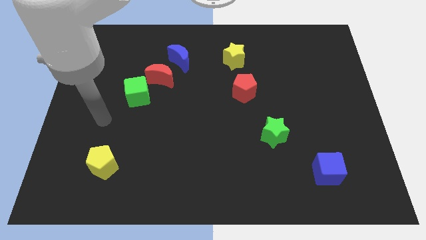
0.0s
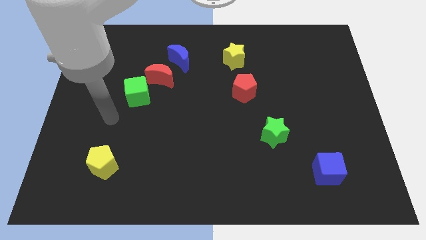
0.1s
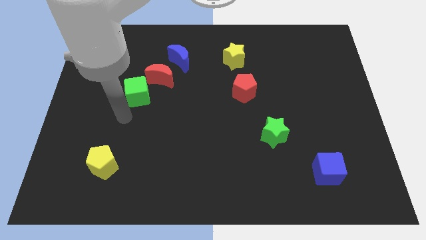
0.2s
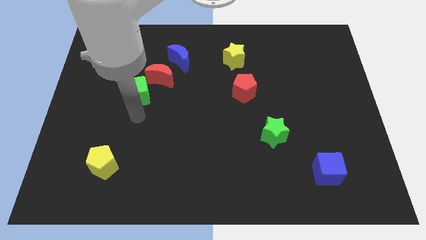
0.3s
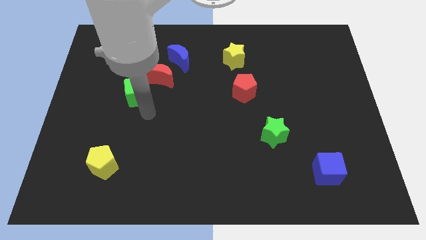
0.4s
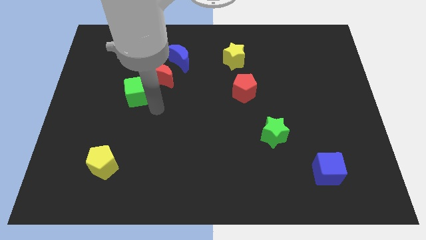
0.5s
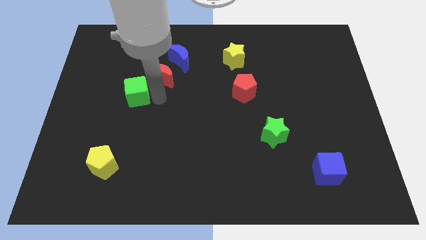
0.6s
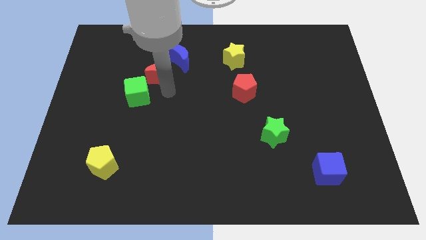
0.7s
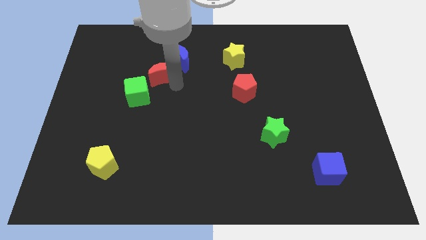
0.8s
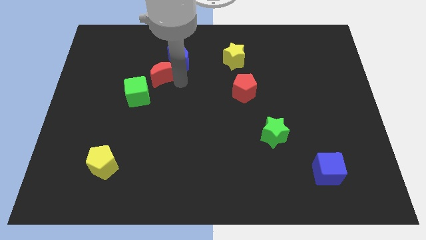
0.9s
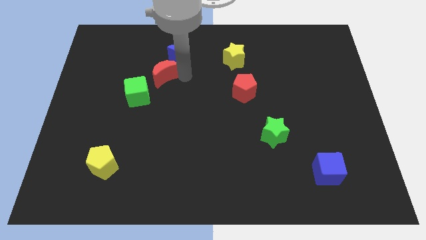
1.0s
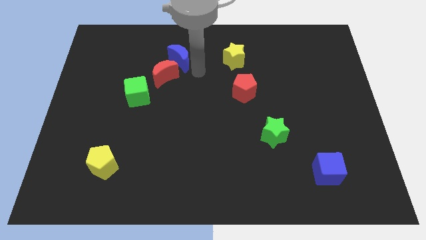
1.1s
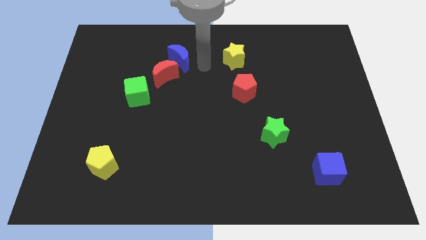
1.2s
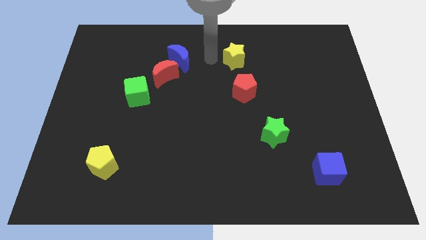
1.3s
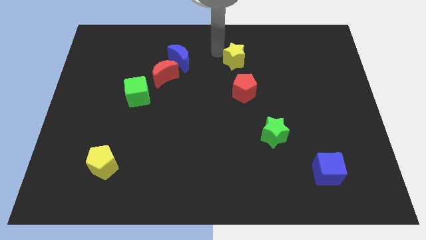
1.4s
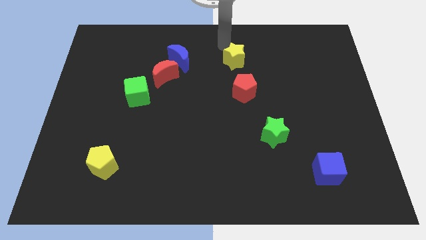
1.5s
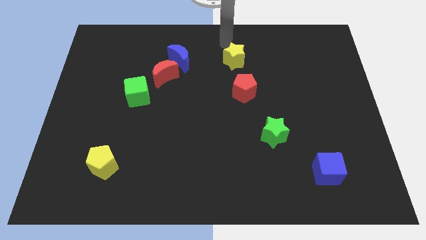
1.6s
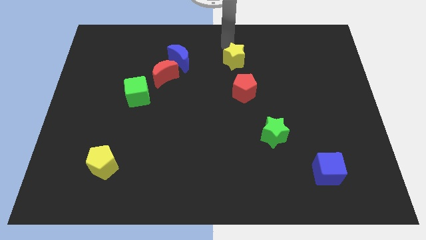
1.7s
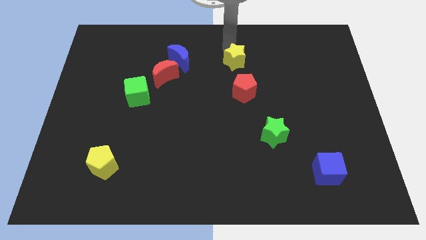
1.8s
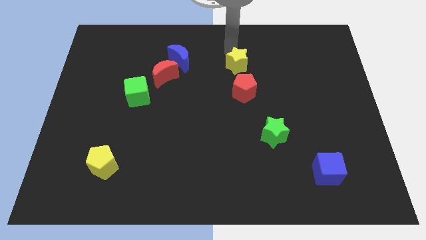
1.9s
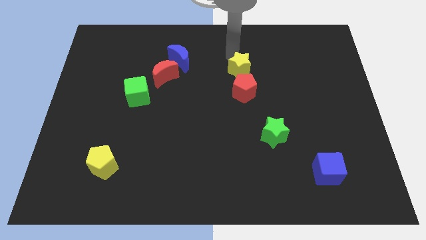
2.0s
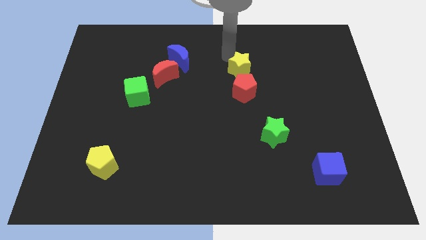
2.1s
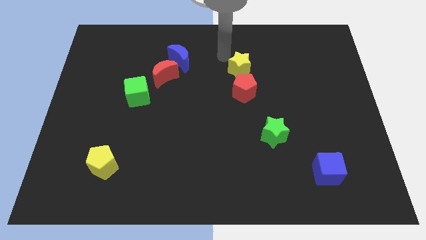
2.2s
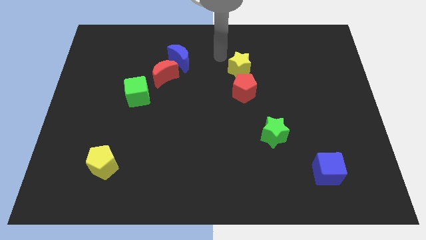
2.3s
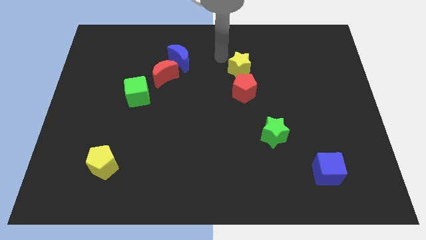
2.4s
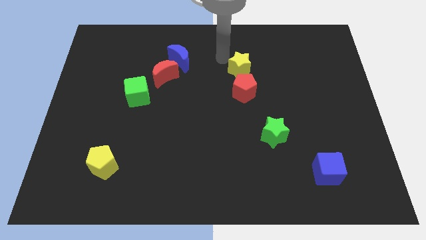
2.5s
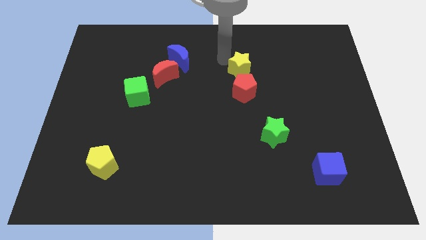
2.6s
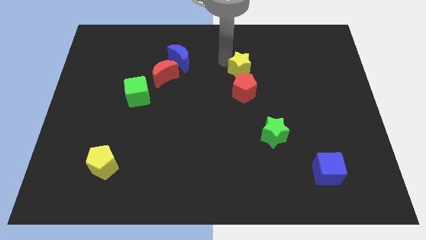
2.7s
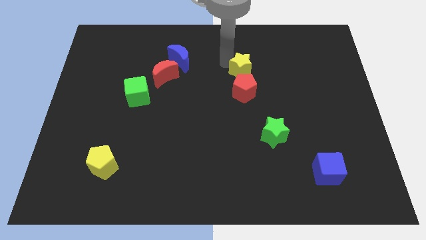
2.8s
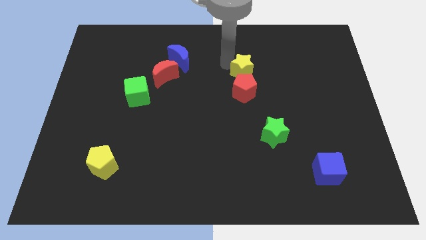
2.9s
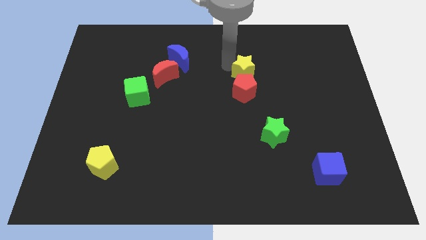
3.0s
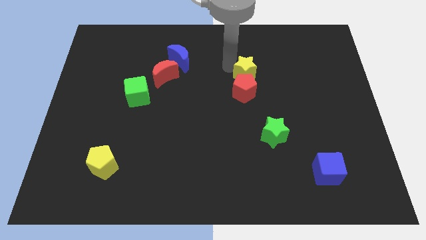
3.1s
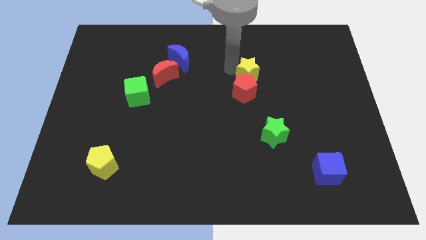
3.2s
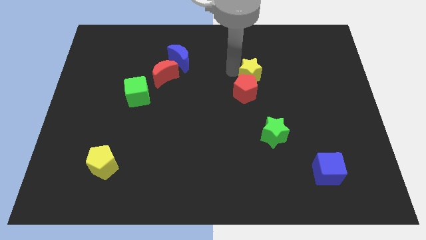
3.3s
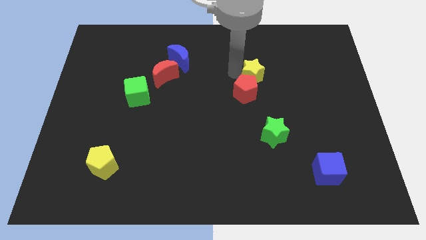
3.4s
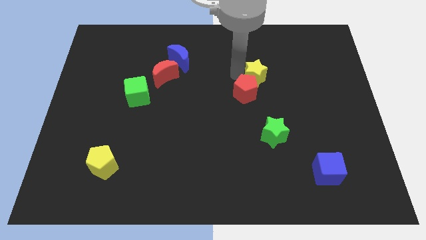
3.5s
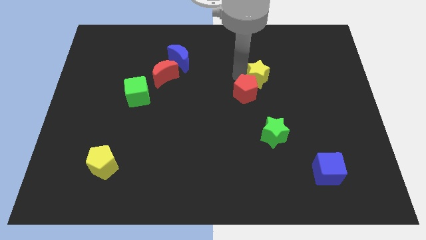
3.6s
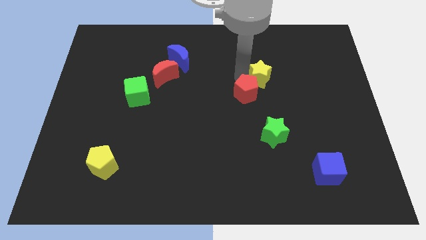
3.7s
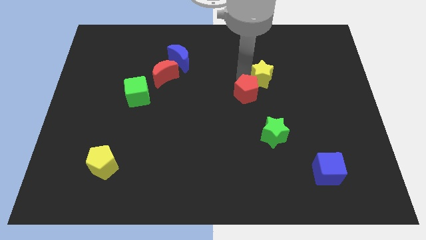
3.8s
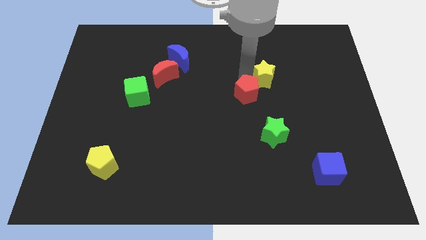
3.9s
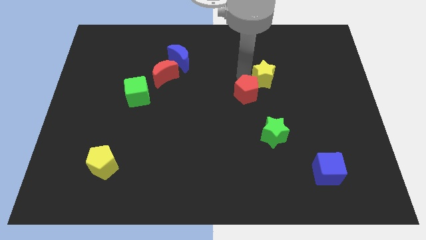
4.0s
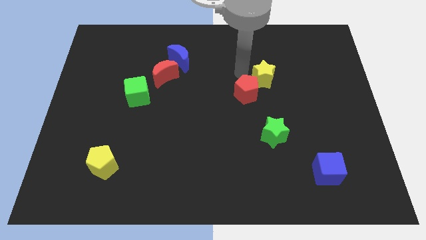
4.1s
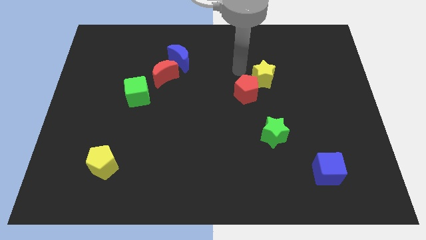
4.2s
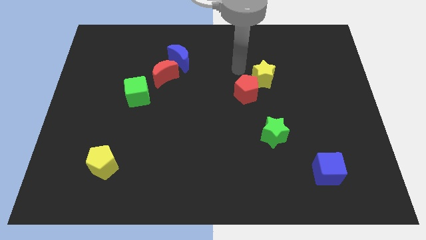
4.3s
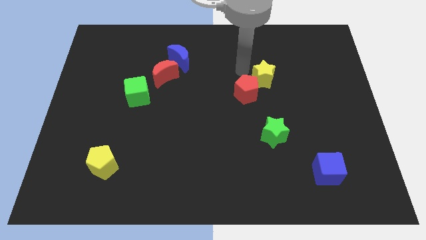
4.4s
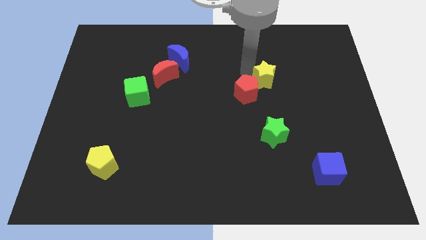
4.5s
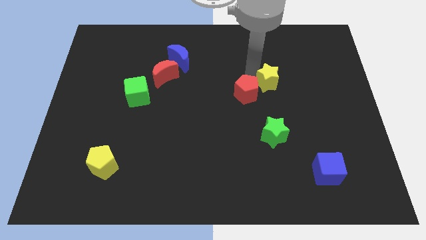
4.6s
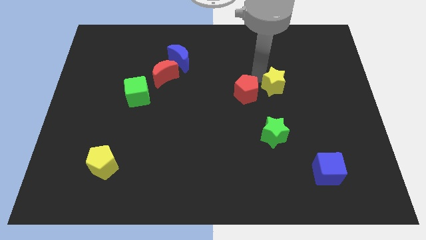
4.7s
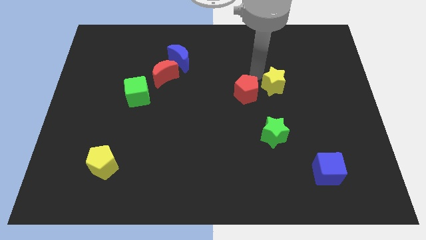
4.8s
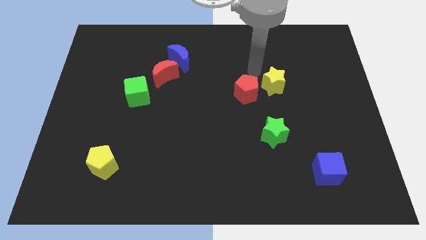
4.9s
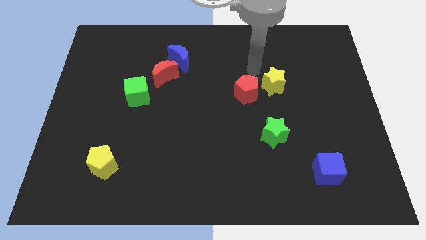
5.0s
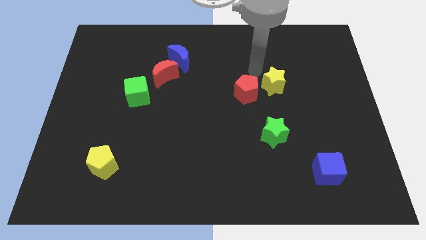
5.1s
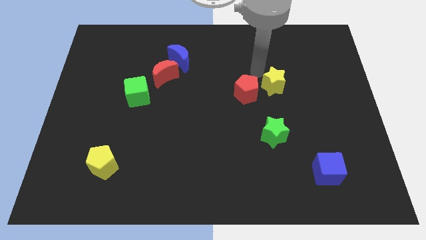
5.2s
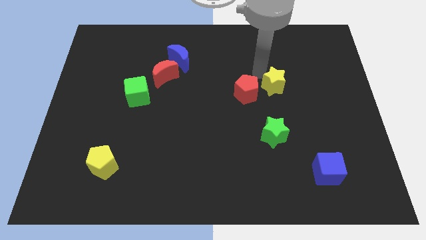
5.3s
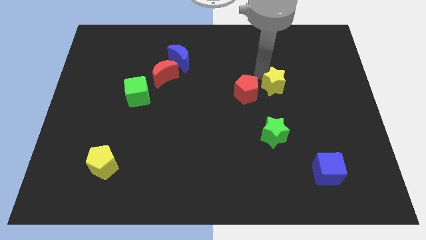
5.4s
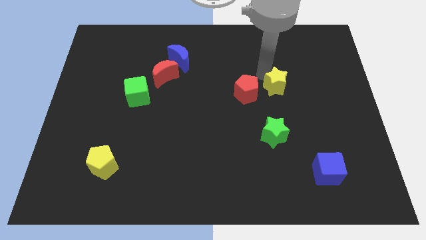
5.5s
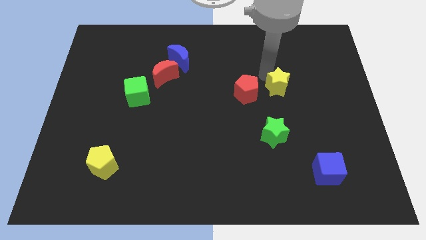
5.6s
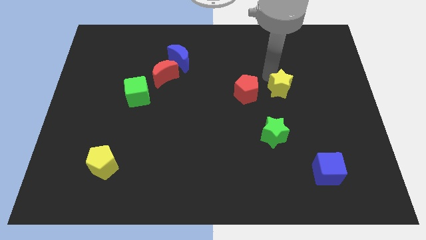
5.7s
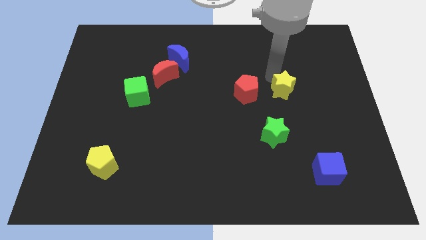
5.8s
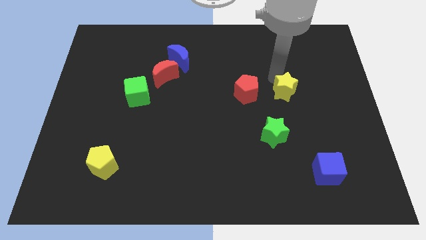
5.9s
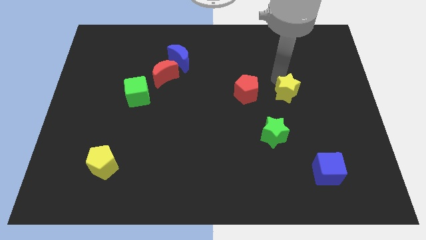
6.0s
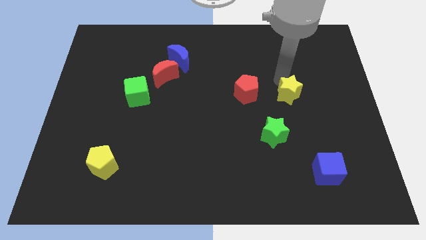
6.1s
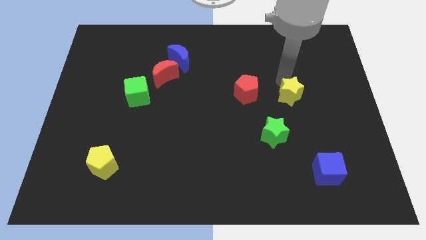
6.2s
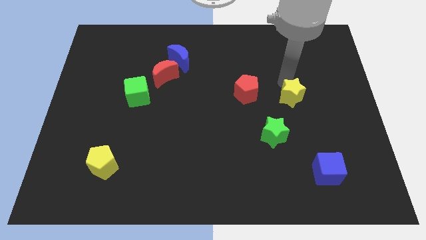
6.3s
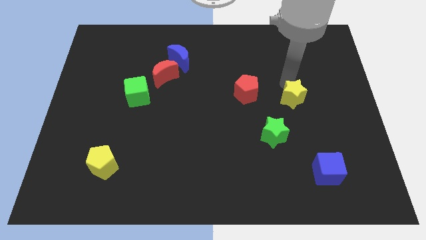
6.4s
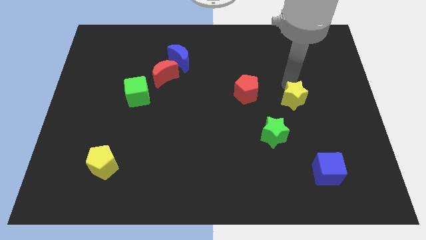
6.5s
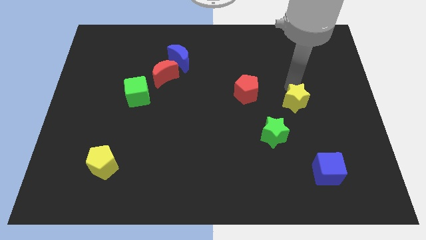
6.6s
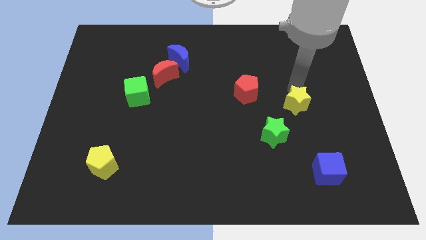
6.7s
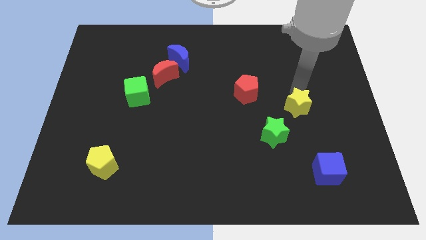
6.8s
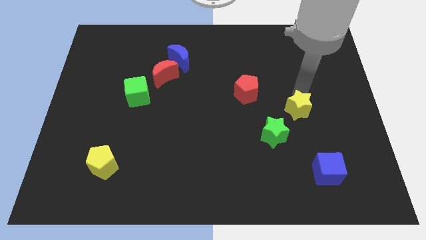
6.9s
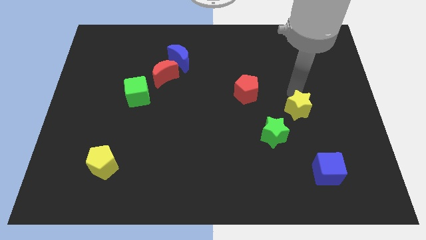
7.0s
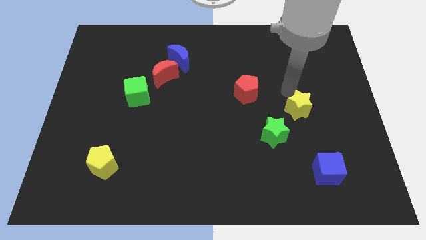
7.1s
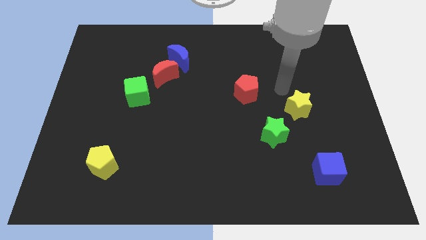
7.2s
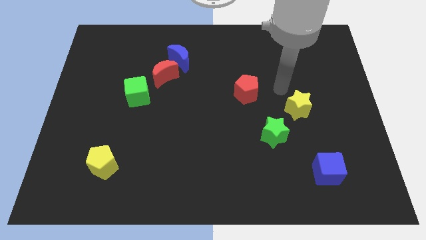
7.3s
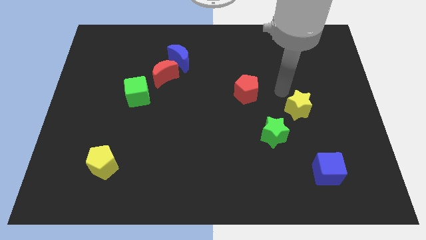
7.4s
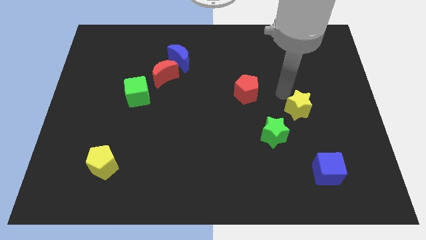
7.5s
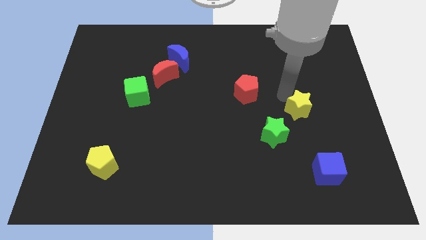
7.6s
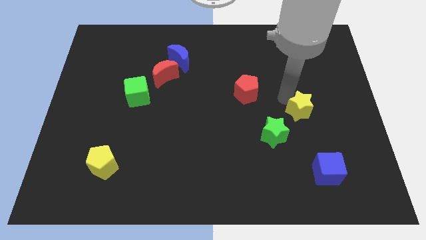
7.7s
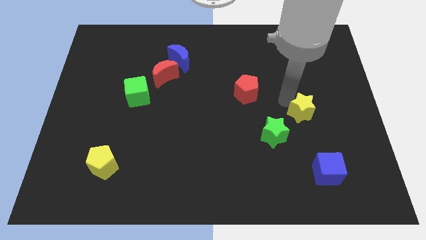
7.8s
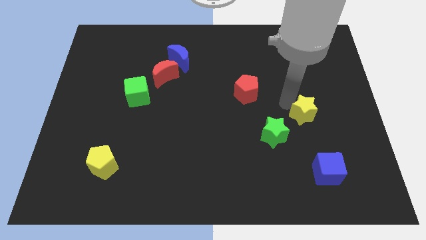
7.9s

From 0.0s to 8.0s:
push the yellow star above the blue cube
